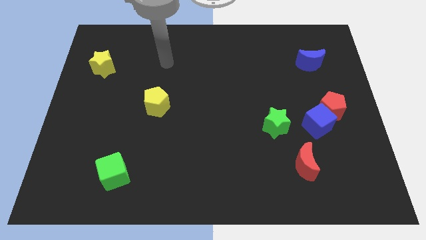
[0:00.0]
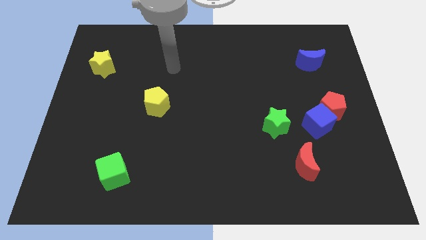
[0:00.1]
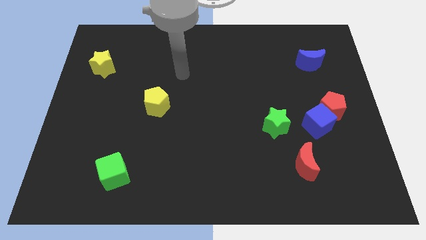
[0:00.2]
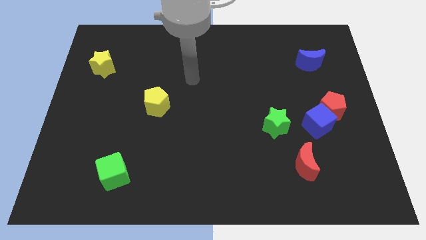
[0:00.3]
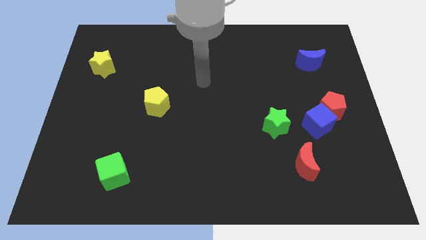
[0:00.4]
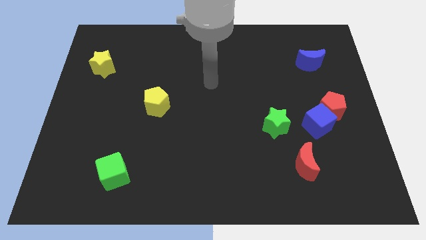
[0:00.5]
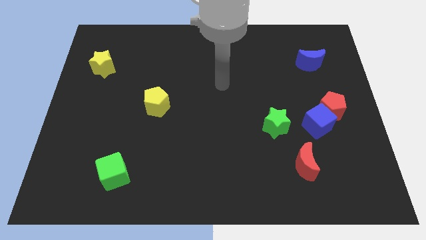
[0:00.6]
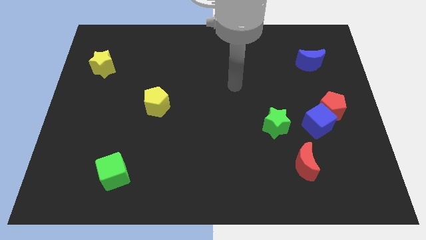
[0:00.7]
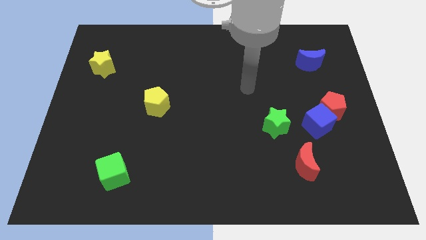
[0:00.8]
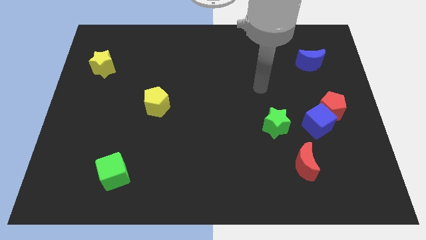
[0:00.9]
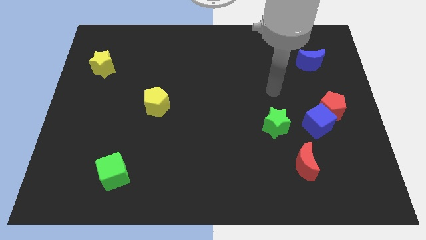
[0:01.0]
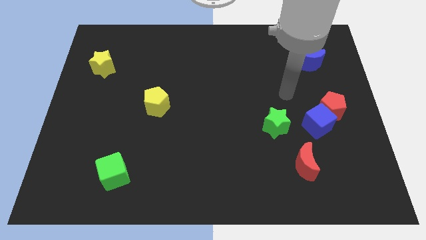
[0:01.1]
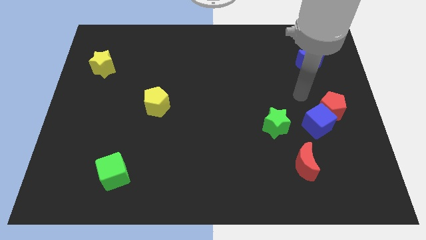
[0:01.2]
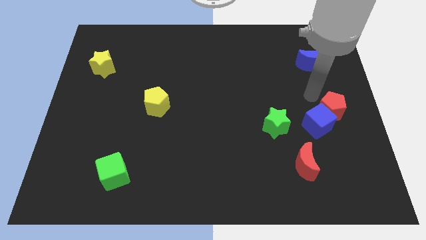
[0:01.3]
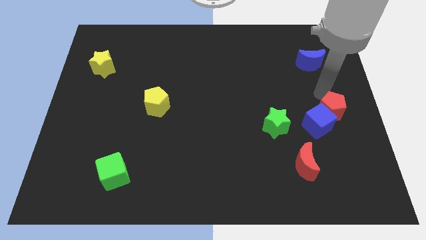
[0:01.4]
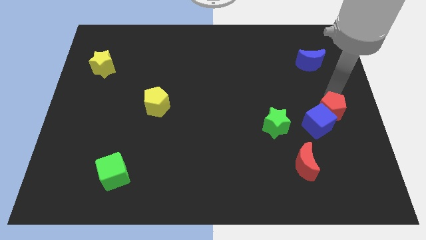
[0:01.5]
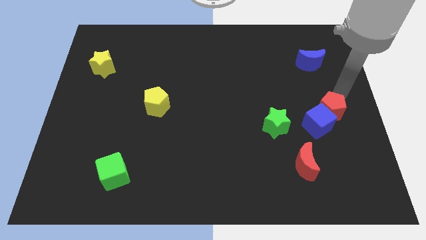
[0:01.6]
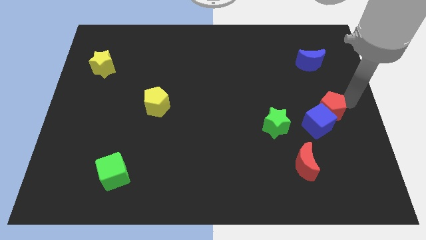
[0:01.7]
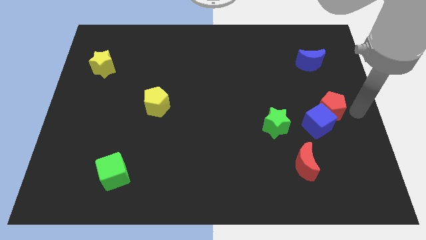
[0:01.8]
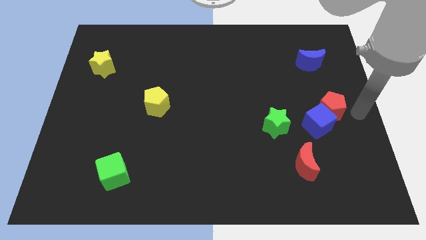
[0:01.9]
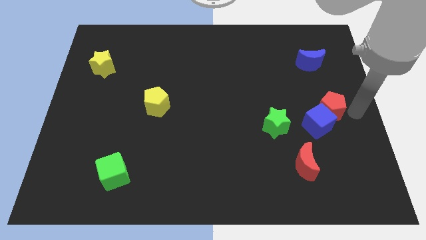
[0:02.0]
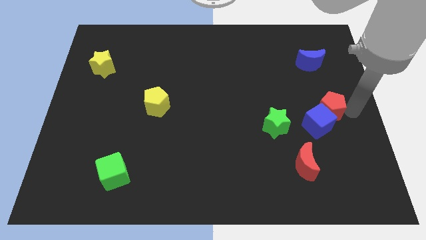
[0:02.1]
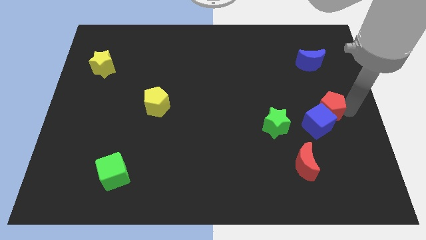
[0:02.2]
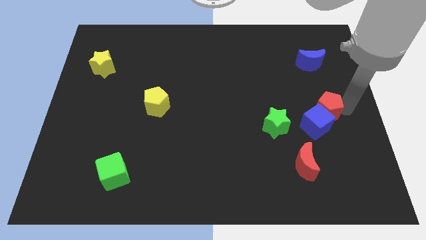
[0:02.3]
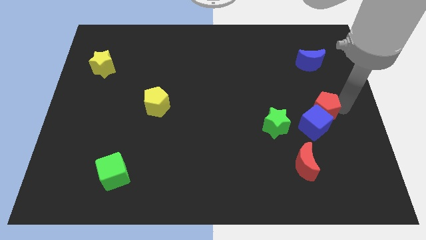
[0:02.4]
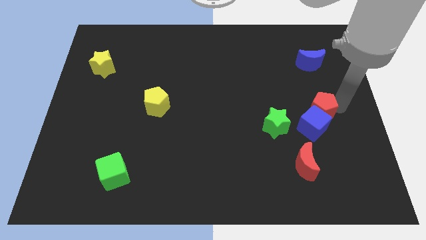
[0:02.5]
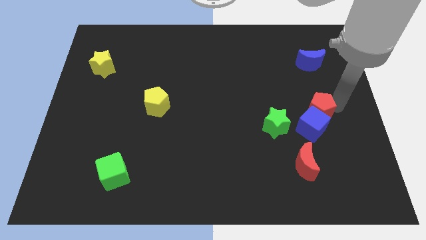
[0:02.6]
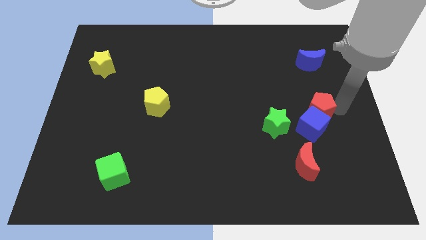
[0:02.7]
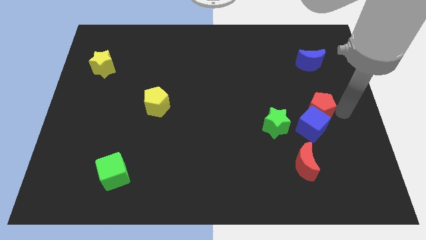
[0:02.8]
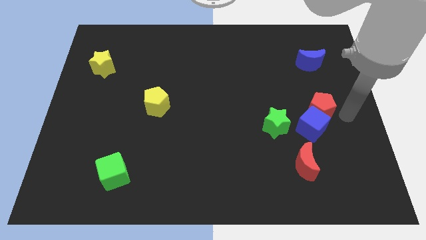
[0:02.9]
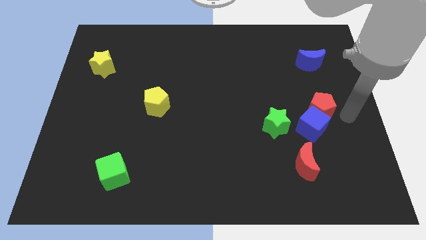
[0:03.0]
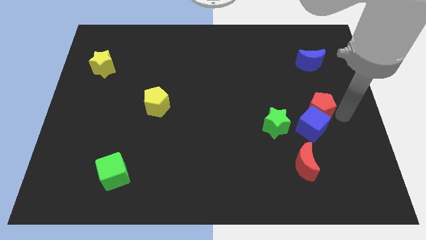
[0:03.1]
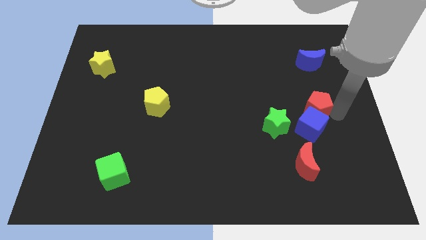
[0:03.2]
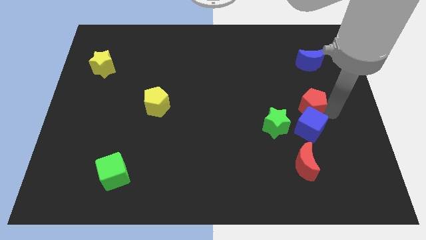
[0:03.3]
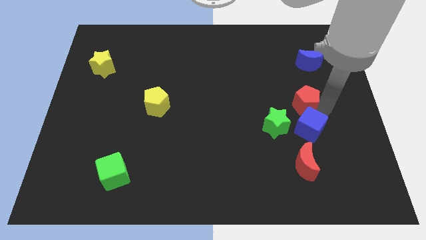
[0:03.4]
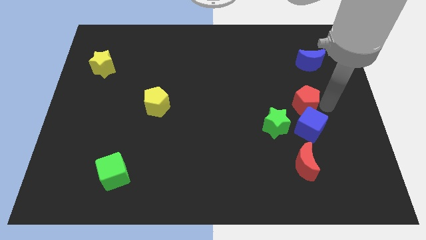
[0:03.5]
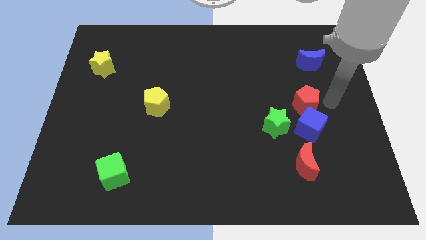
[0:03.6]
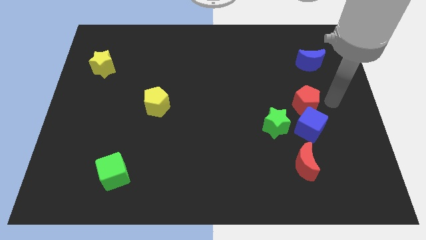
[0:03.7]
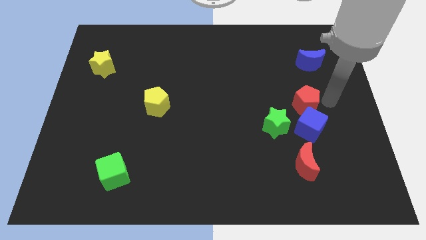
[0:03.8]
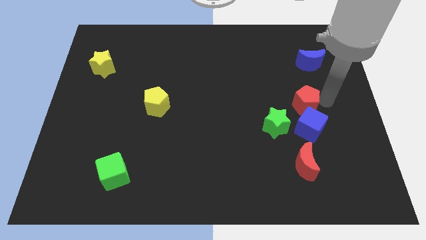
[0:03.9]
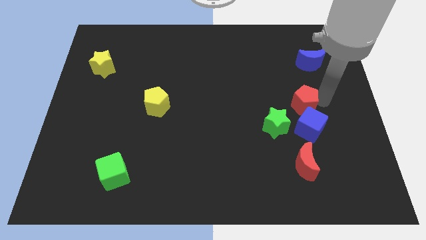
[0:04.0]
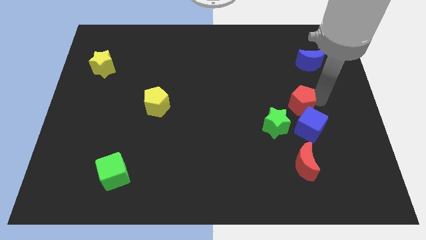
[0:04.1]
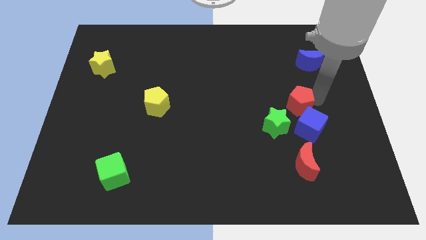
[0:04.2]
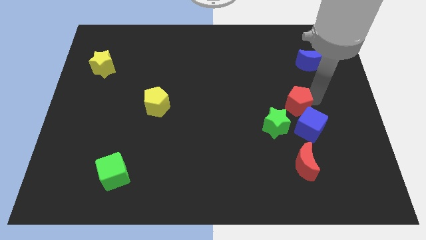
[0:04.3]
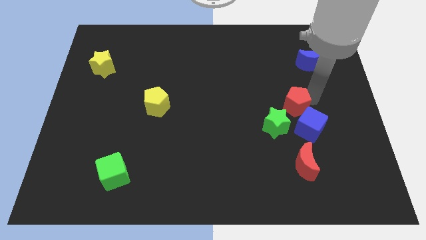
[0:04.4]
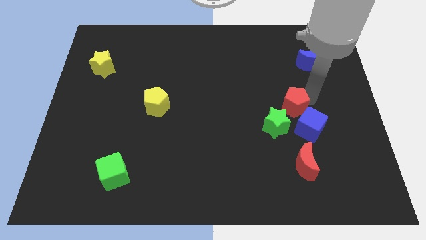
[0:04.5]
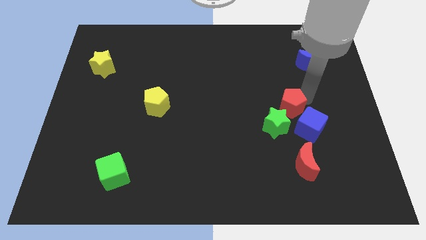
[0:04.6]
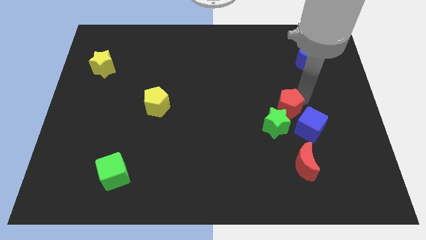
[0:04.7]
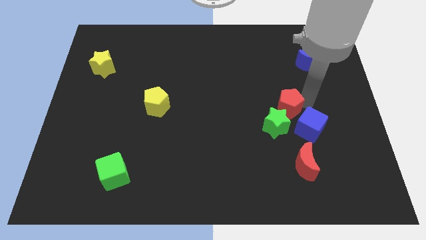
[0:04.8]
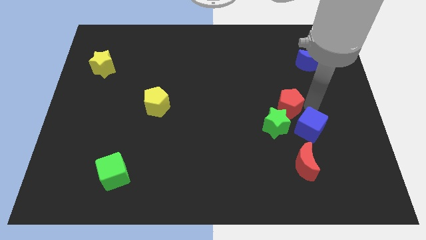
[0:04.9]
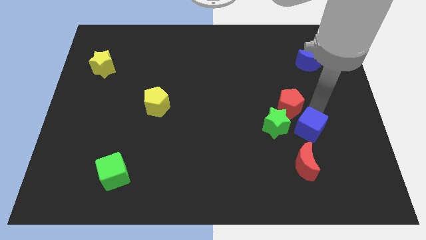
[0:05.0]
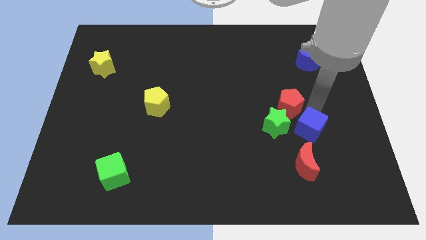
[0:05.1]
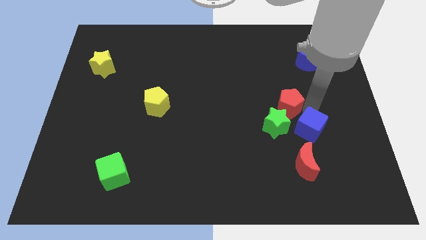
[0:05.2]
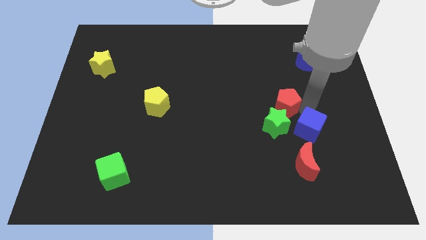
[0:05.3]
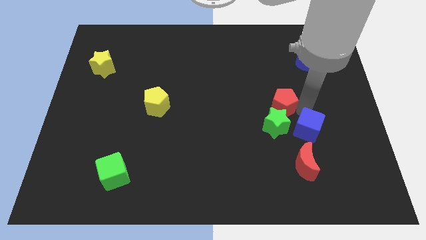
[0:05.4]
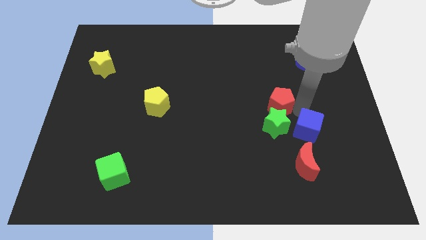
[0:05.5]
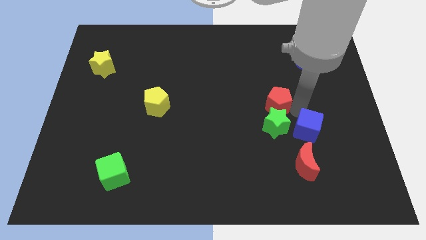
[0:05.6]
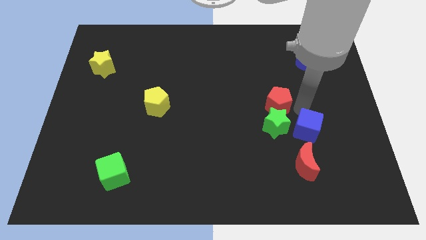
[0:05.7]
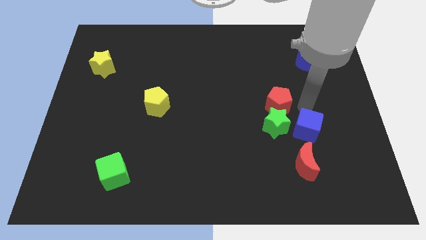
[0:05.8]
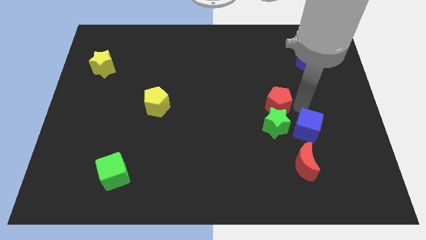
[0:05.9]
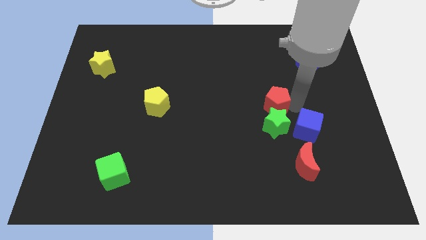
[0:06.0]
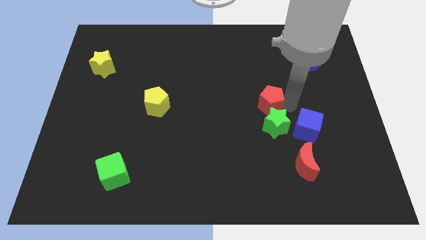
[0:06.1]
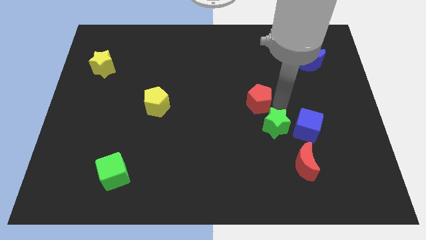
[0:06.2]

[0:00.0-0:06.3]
slide the red pentagon to the middle of the board

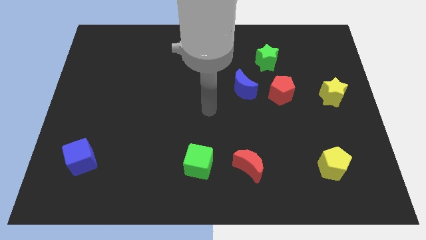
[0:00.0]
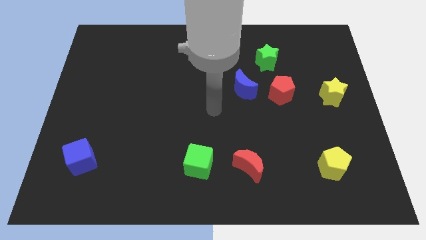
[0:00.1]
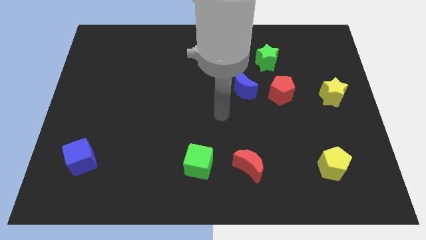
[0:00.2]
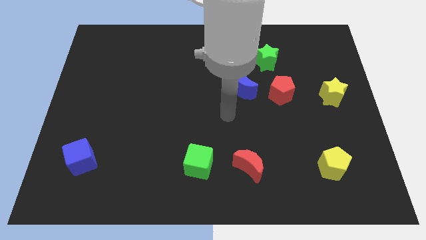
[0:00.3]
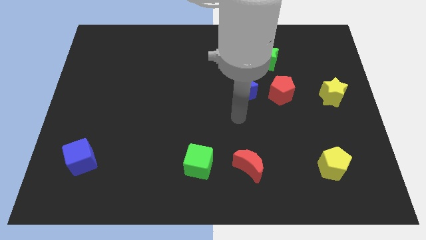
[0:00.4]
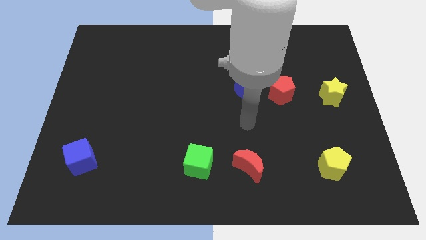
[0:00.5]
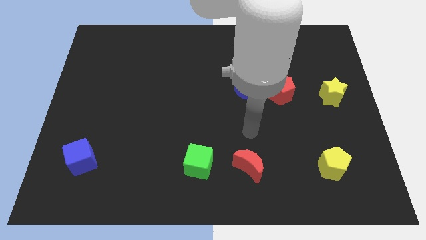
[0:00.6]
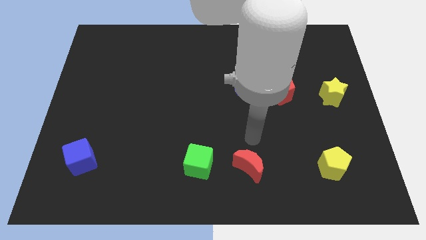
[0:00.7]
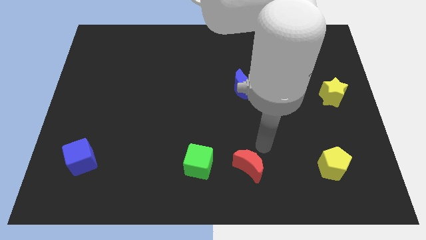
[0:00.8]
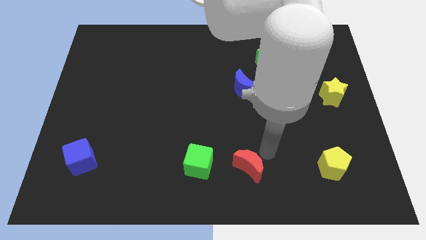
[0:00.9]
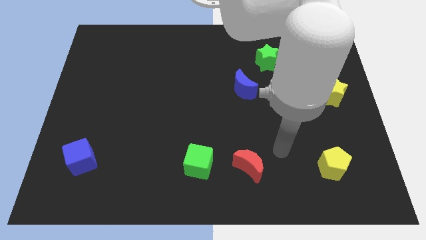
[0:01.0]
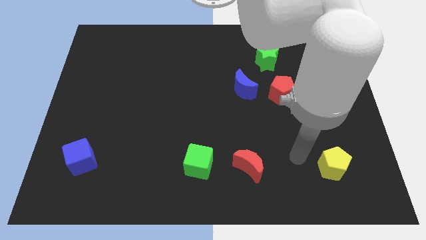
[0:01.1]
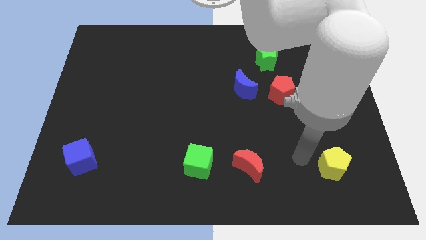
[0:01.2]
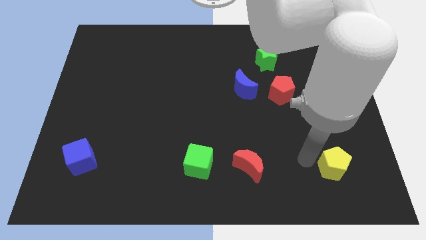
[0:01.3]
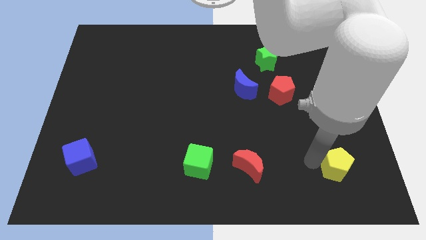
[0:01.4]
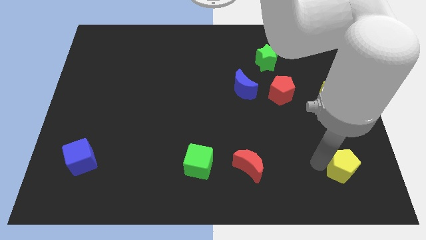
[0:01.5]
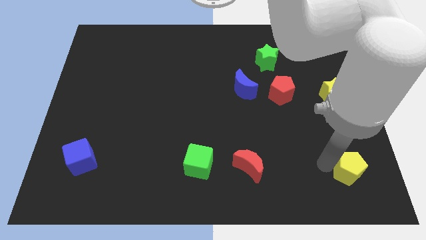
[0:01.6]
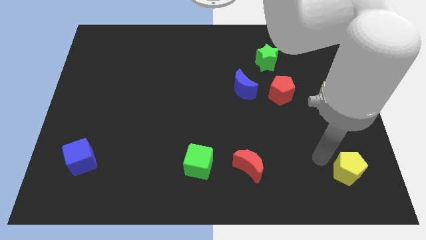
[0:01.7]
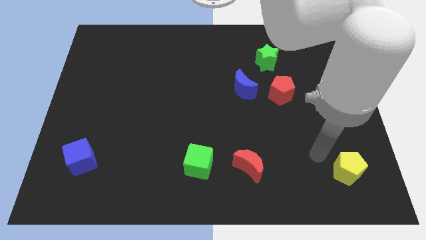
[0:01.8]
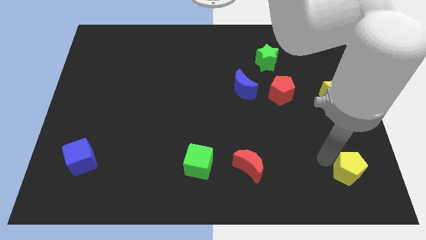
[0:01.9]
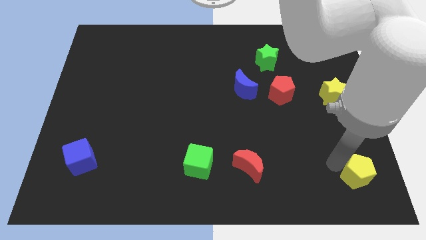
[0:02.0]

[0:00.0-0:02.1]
push the yellow pentagon to the bottom right of the board
